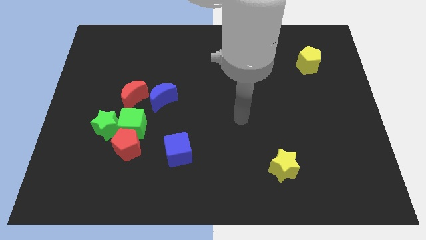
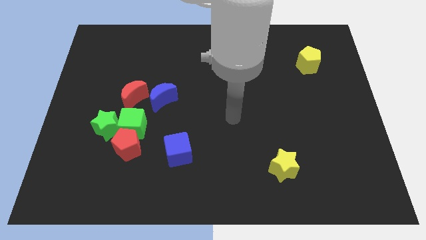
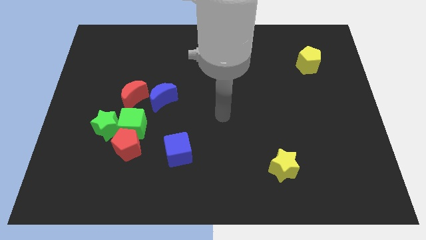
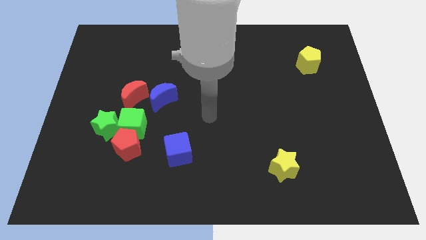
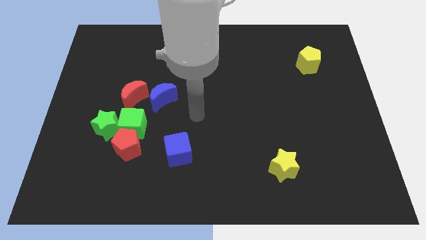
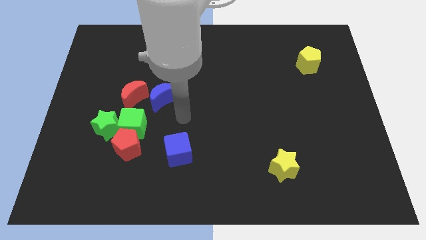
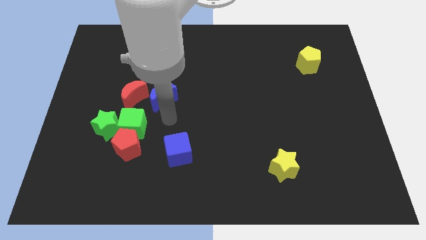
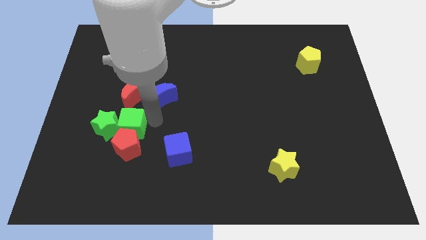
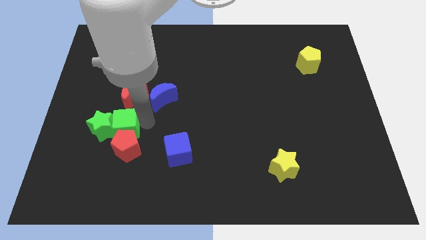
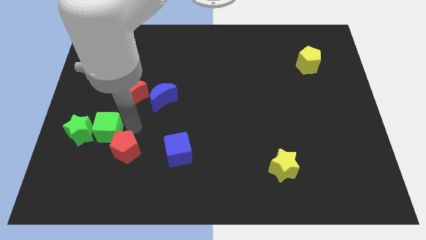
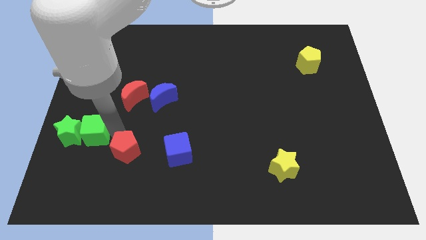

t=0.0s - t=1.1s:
pull the red pentagon apart from the green cube and green star

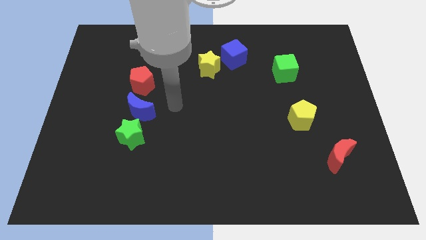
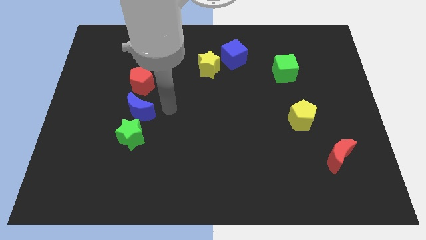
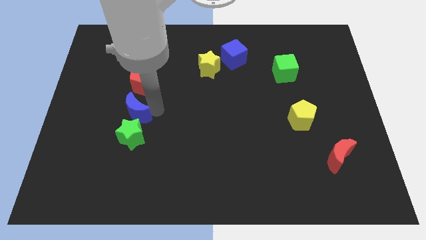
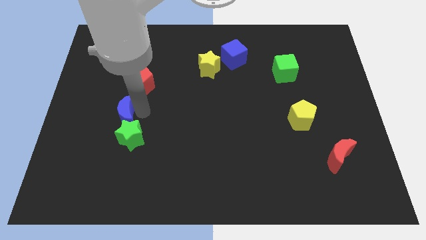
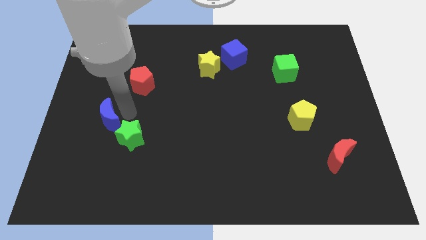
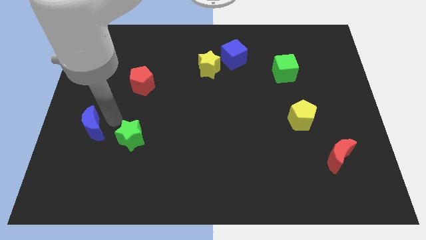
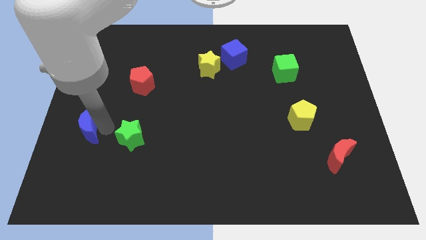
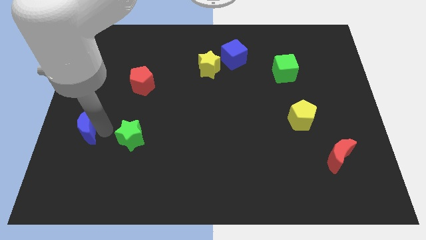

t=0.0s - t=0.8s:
move the green star away from the blue moon

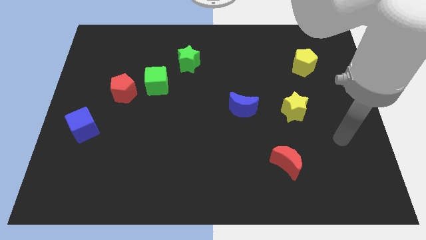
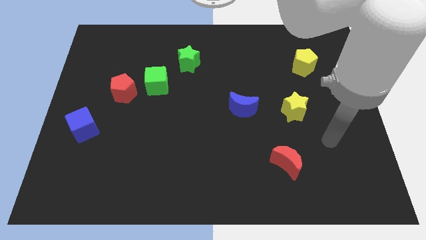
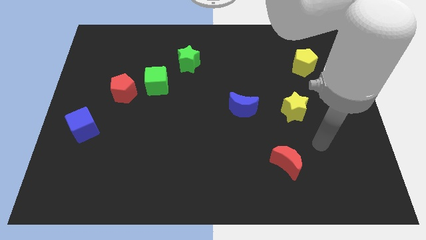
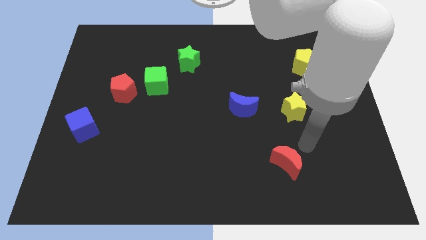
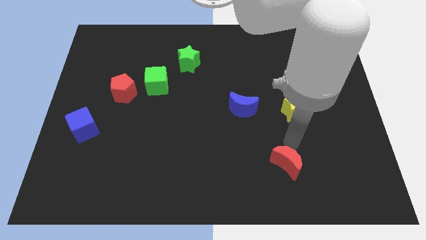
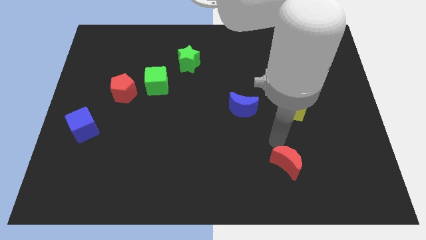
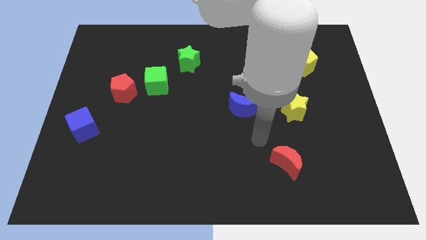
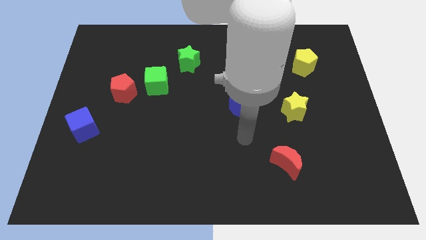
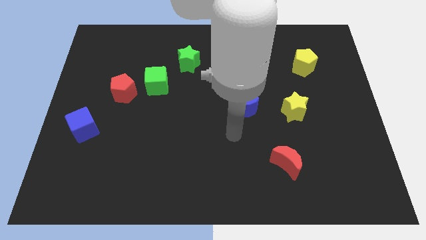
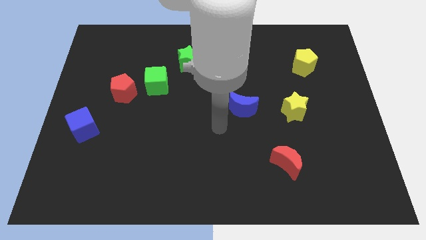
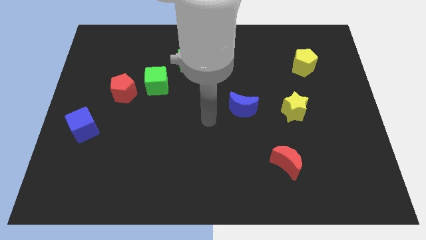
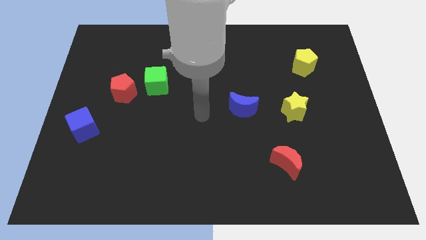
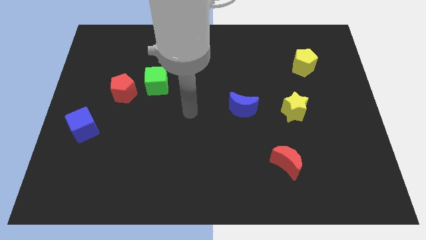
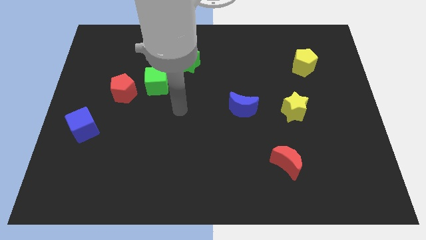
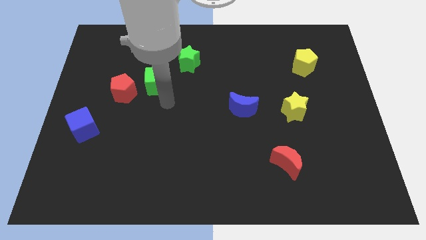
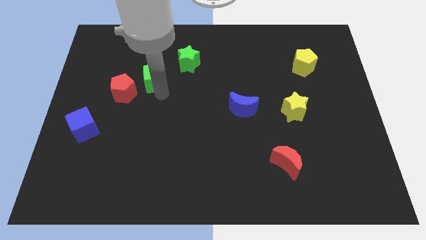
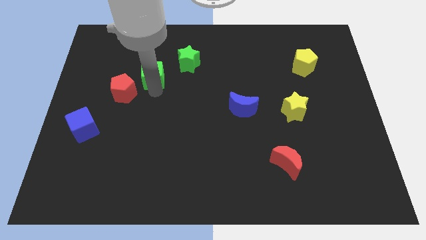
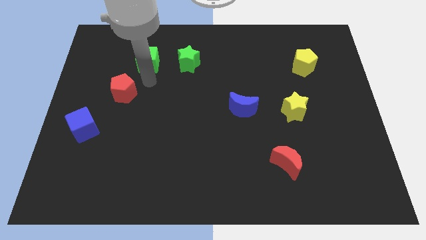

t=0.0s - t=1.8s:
pull the red pentagon apart from the green cube

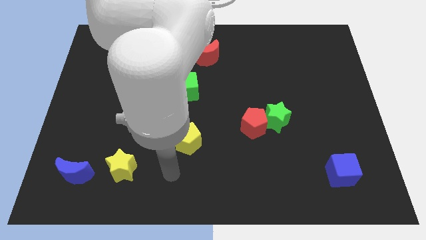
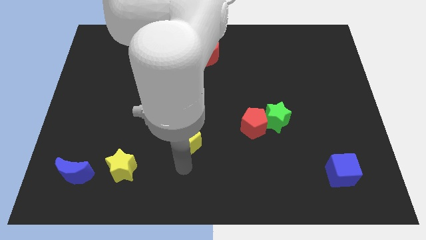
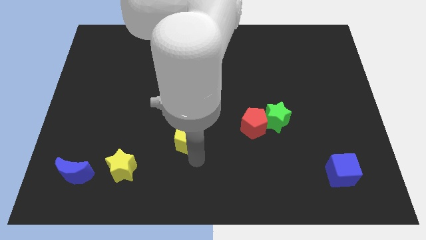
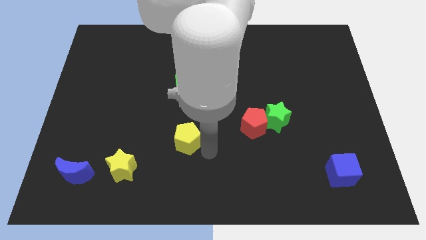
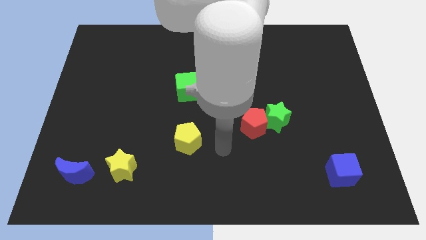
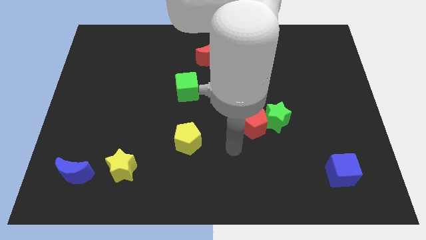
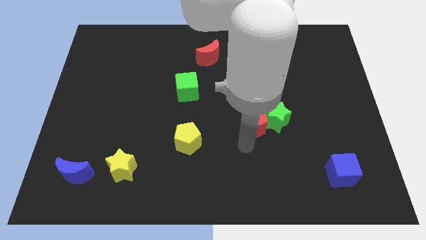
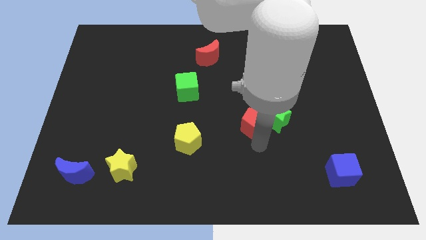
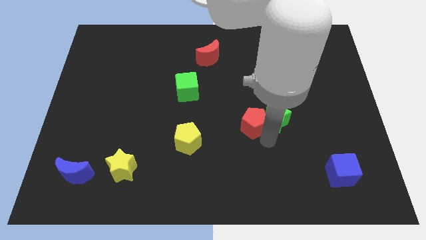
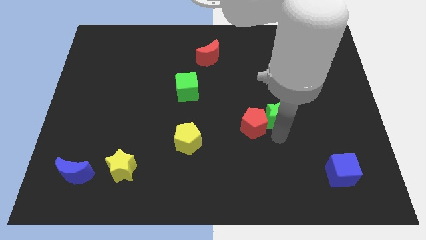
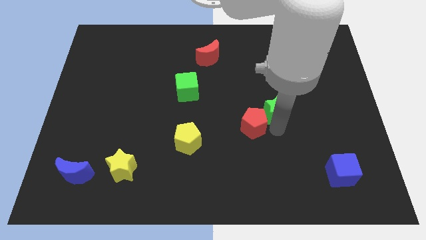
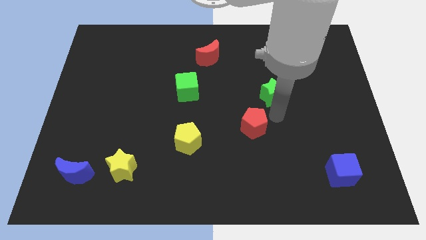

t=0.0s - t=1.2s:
separate the red pentagon from the green star

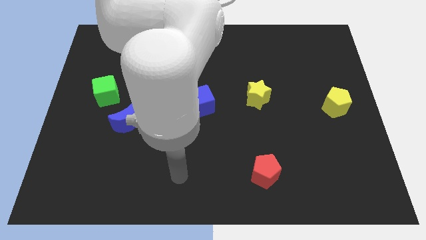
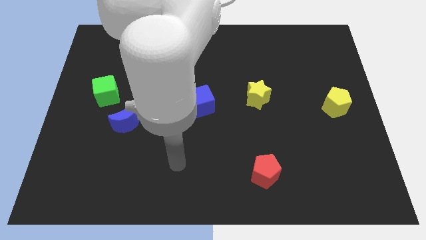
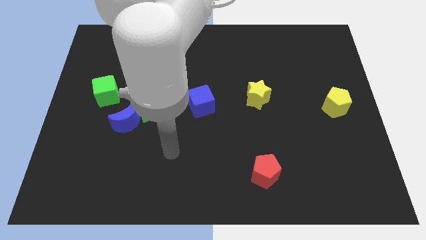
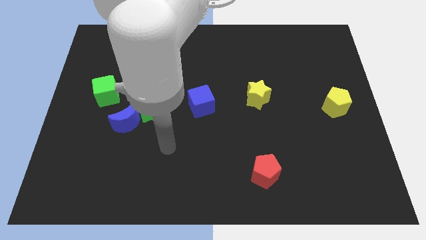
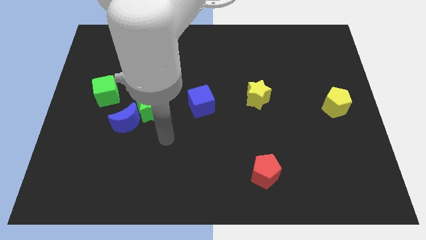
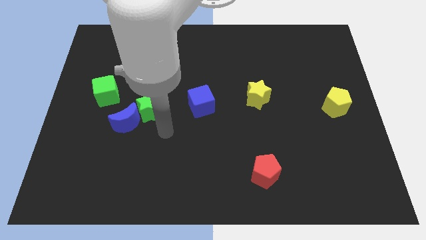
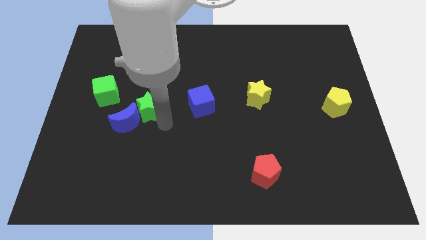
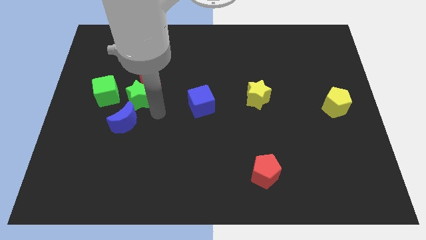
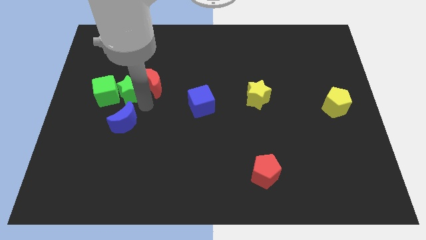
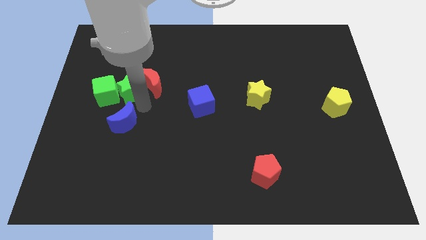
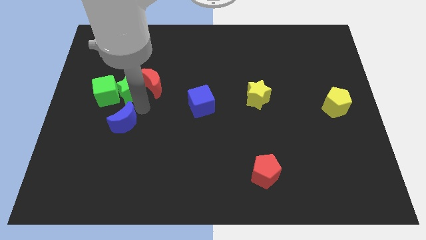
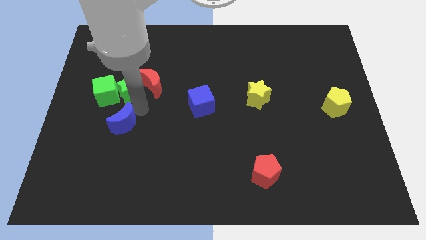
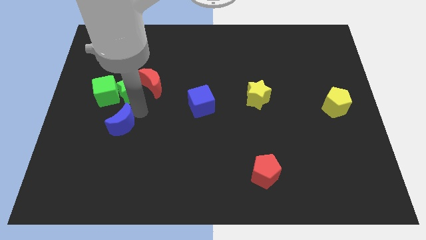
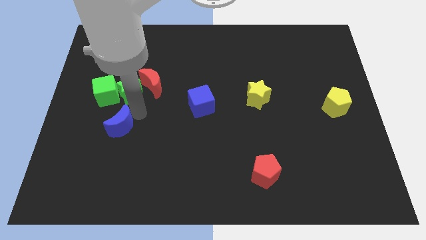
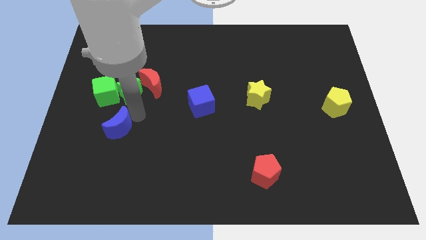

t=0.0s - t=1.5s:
pull the blue moon apart from the green star

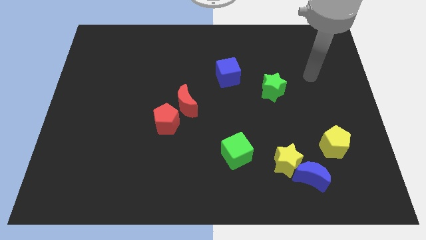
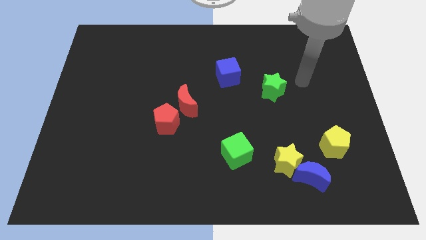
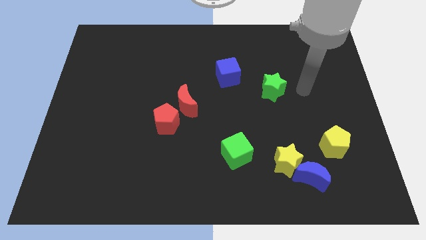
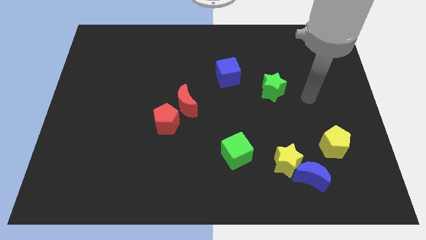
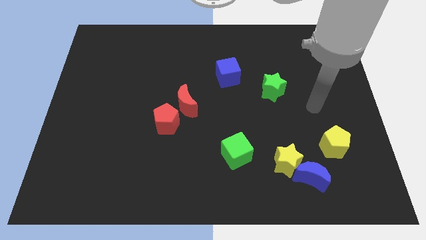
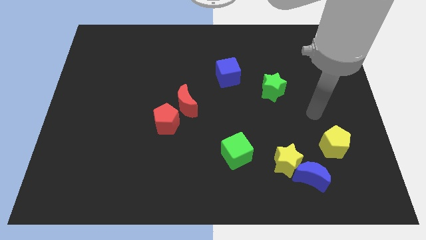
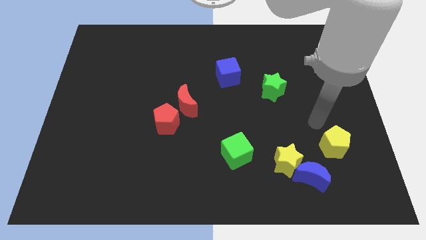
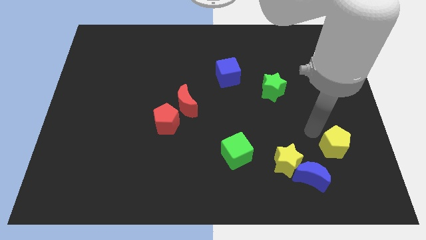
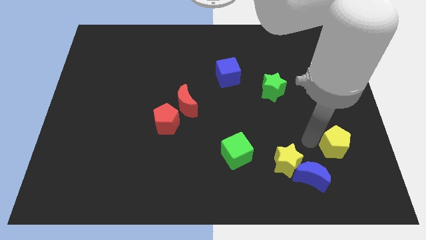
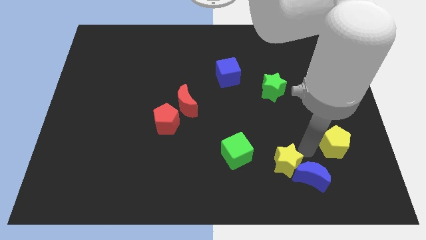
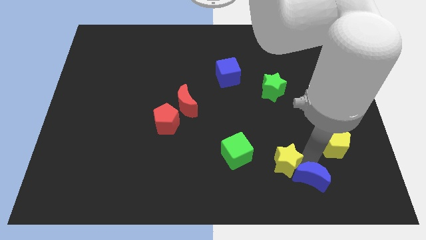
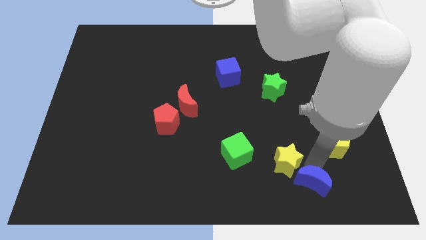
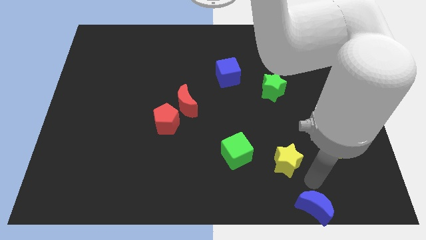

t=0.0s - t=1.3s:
separate the yellow star from the blue moon

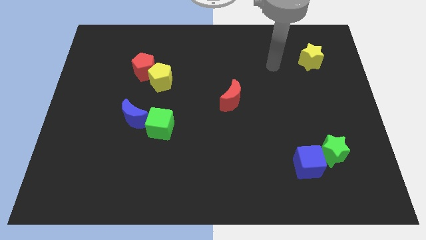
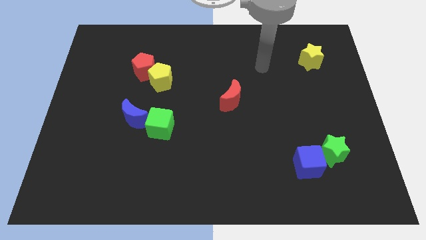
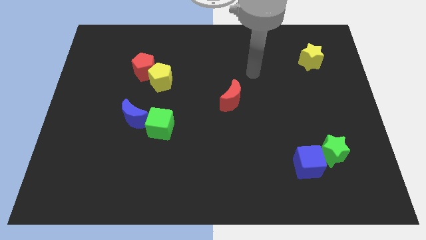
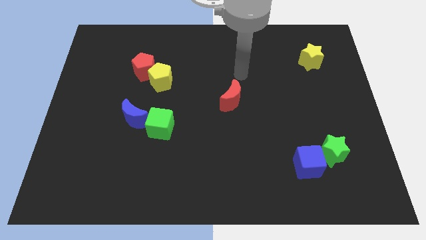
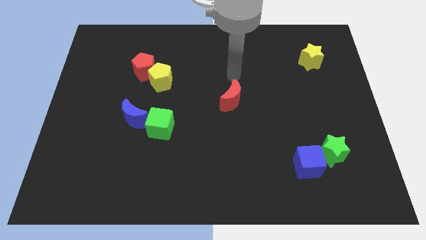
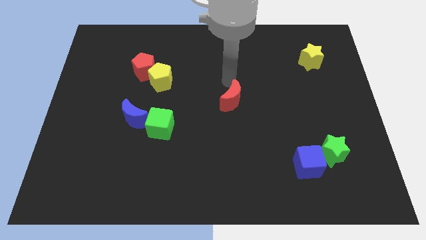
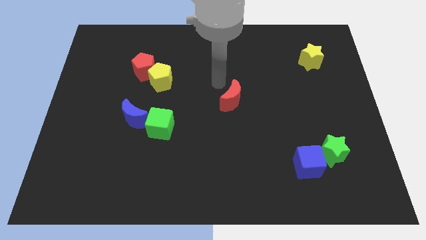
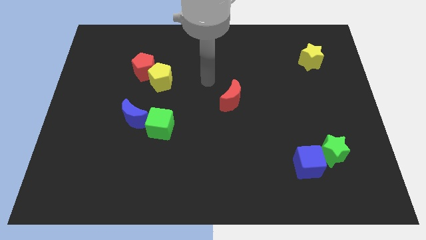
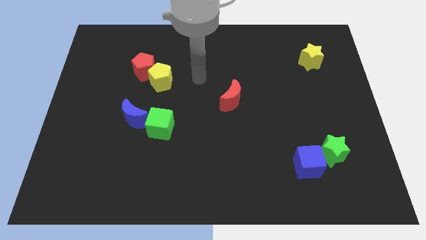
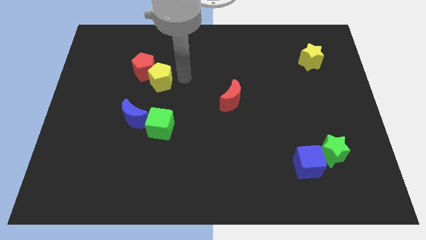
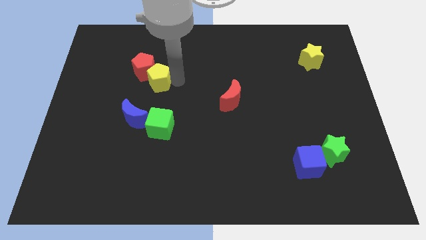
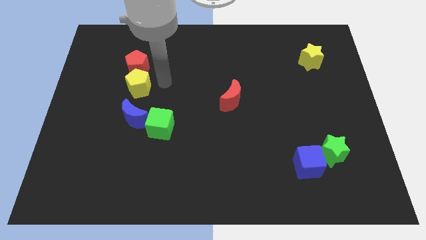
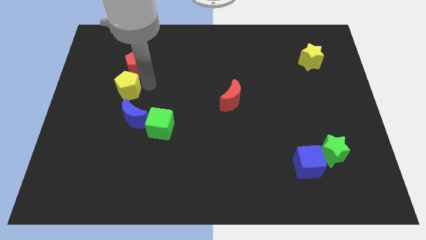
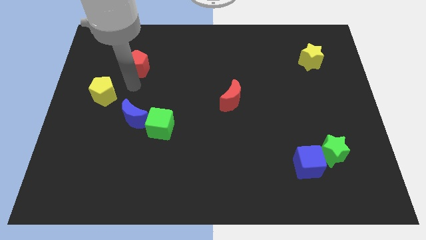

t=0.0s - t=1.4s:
move the red pentagon away from the yellow pentagon

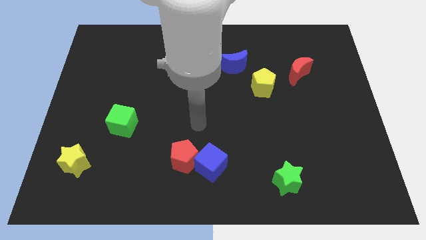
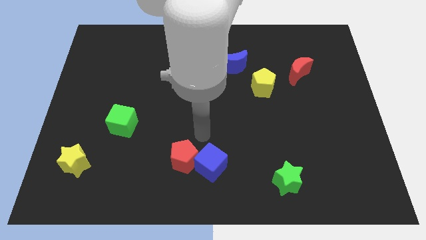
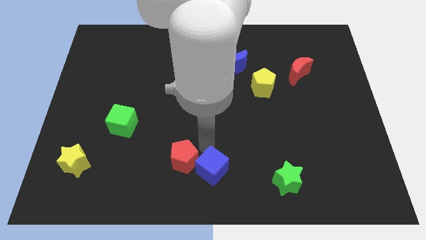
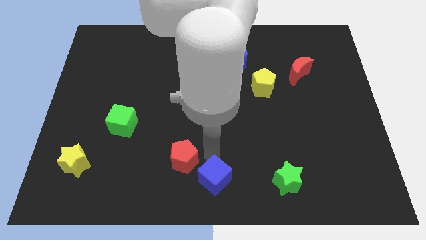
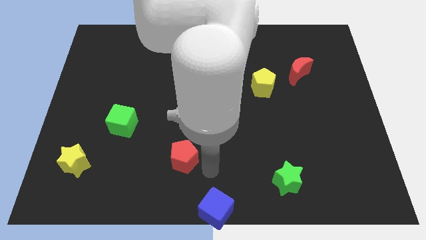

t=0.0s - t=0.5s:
pull the red pentagon apart from the blue cube
